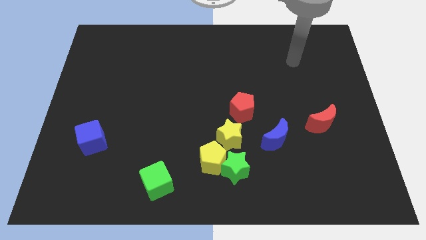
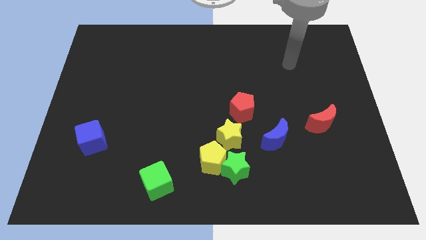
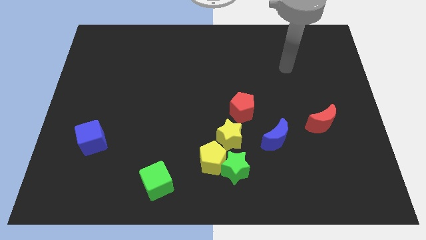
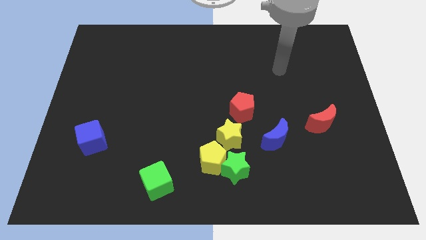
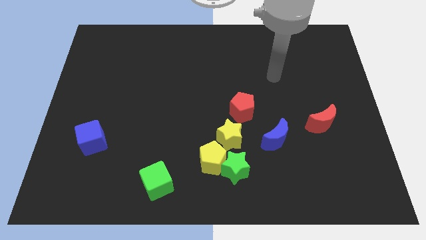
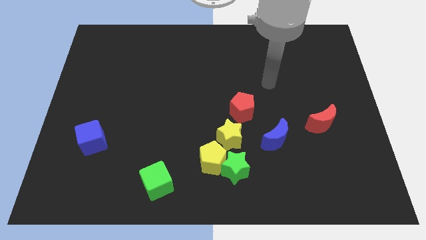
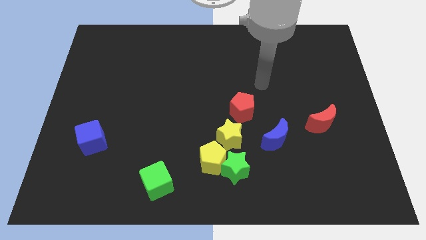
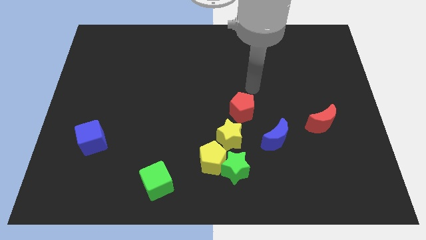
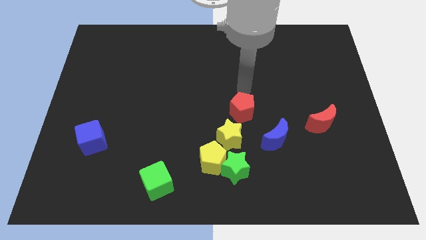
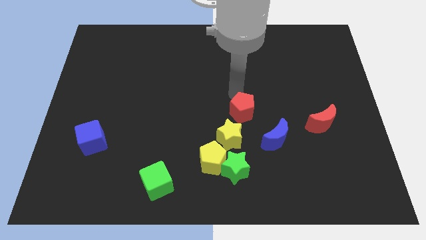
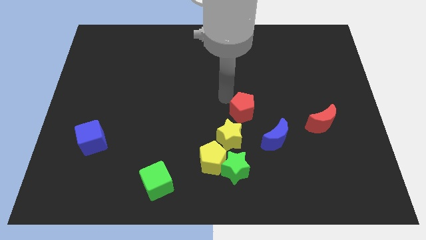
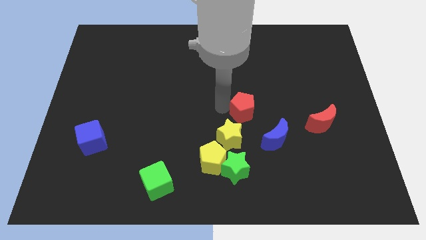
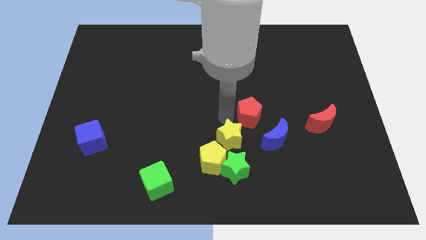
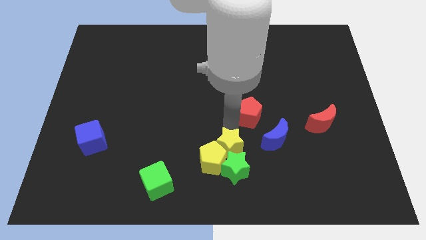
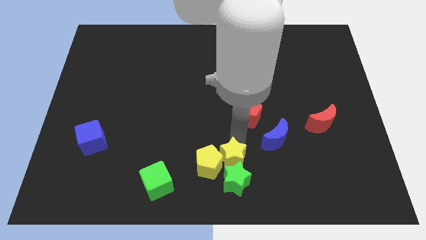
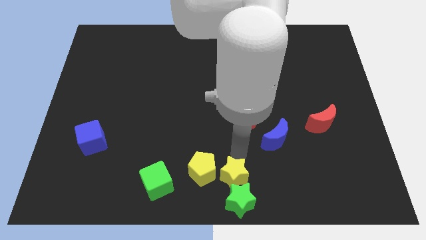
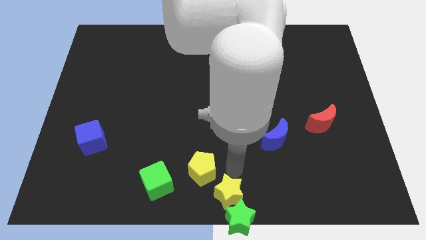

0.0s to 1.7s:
move the yellow pentagon away from the green star and yellow star

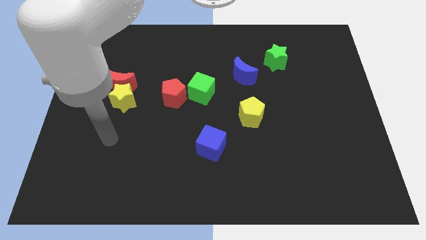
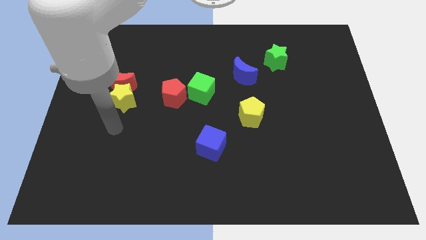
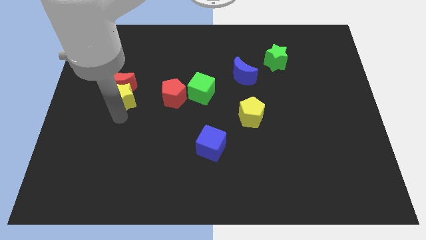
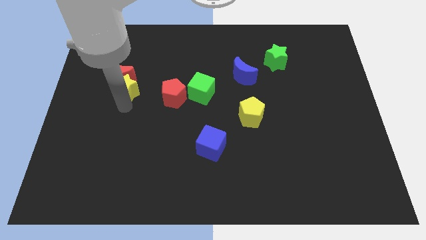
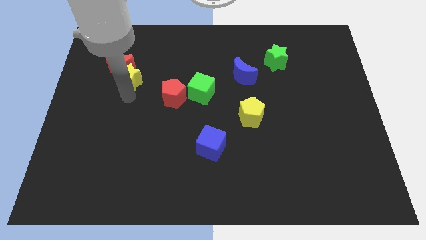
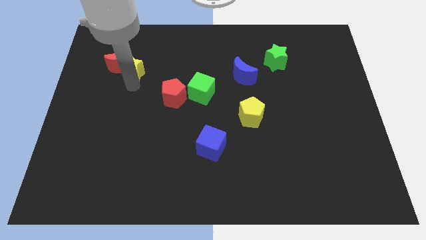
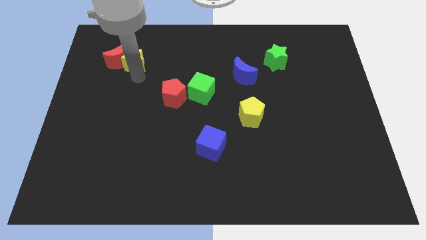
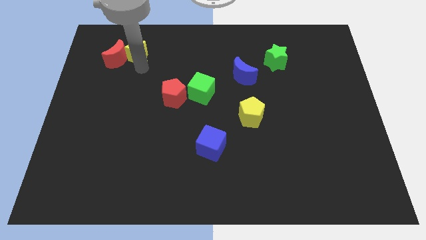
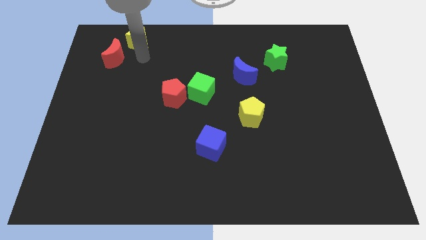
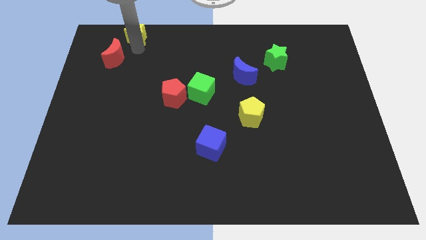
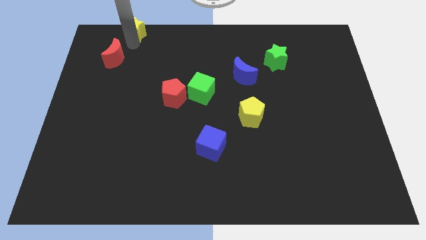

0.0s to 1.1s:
separate the red moon from the yellow star

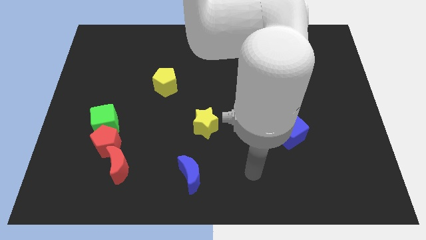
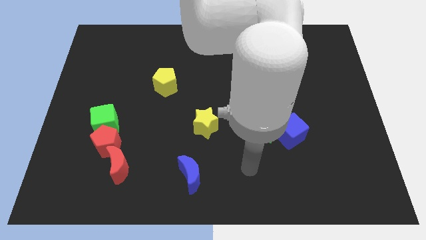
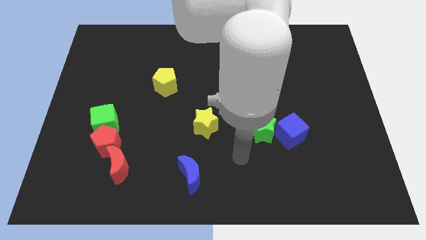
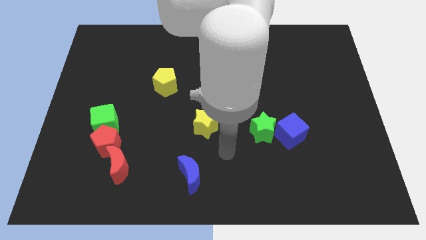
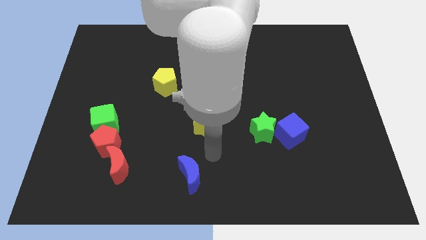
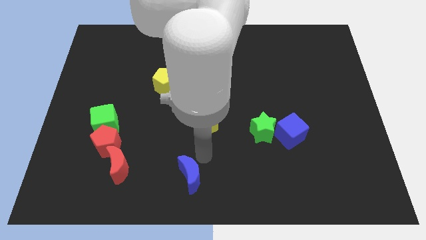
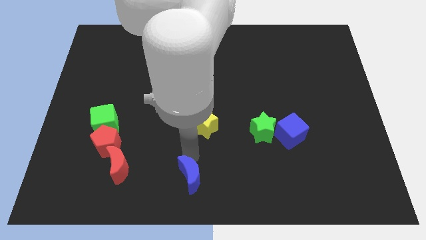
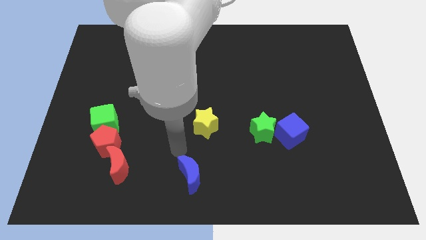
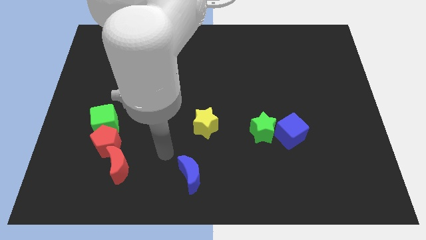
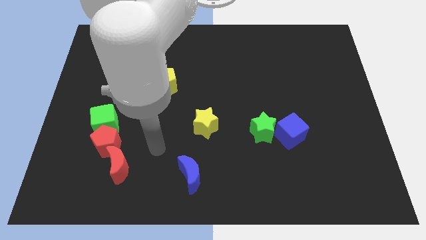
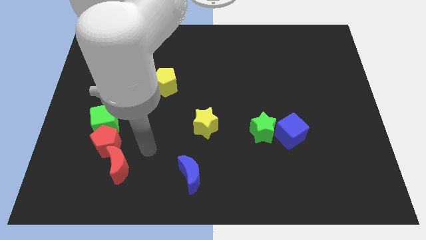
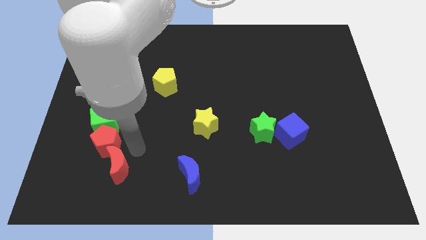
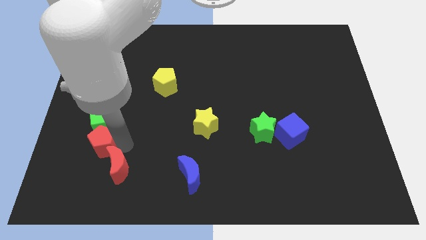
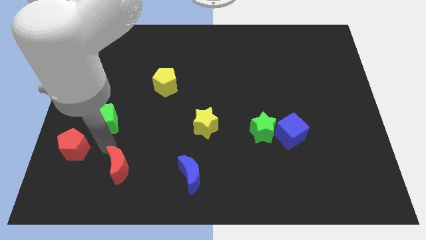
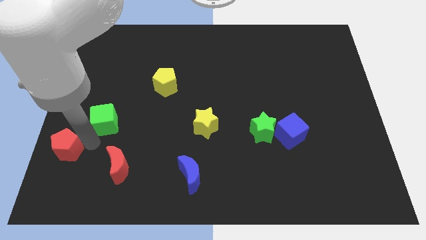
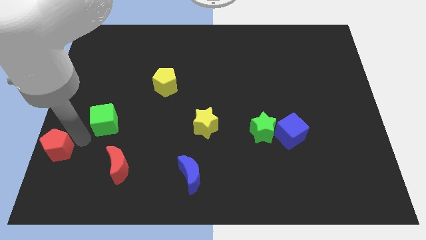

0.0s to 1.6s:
separate the green cube from the red pentagon

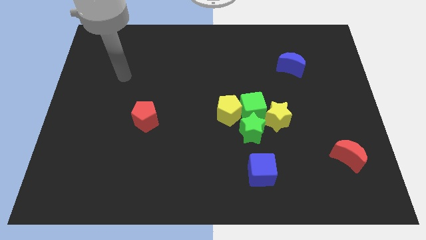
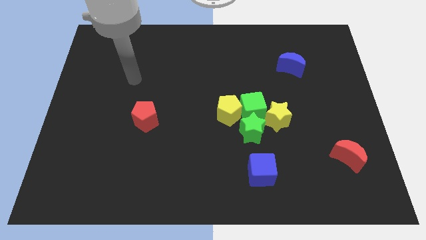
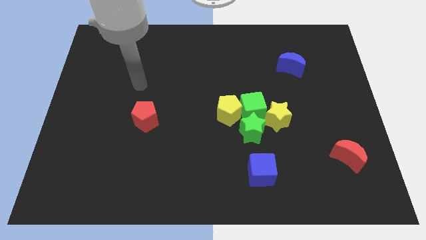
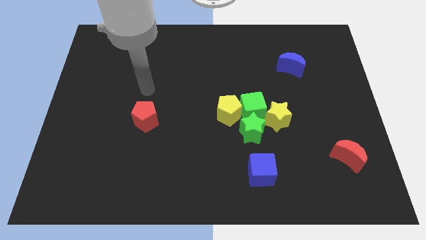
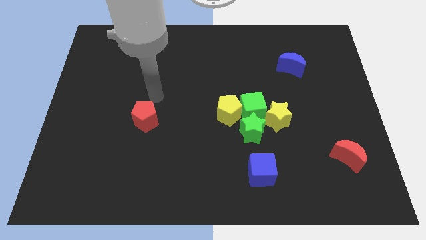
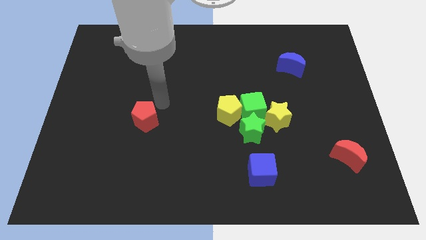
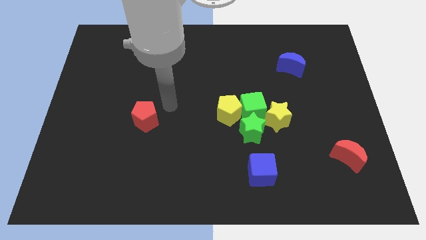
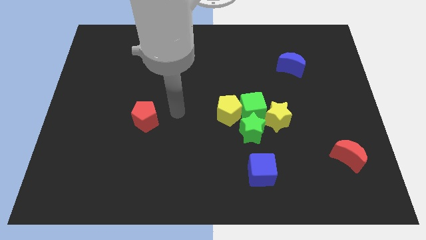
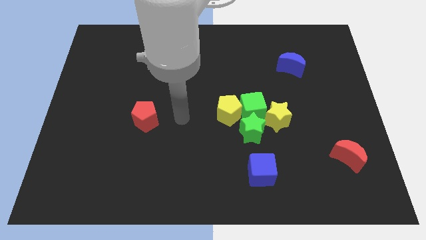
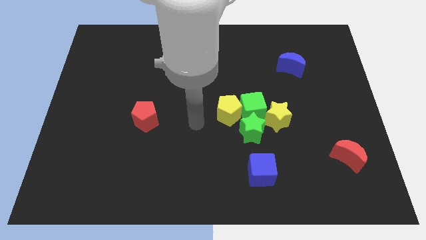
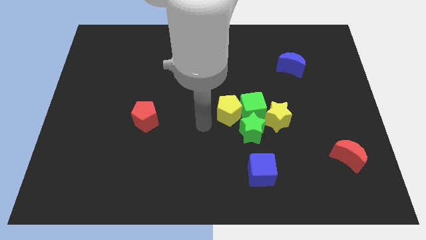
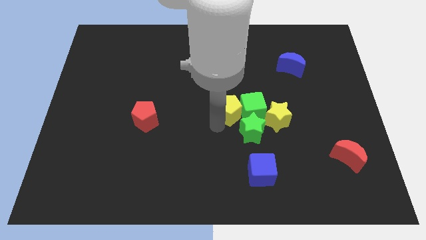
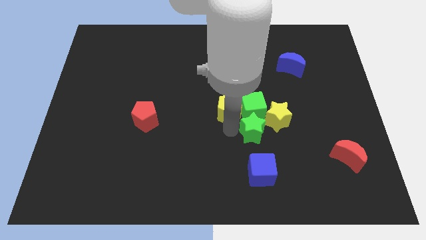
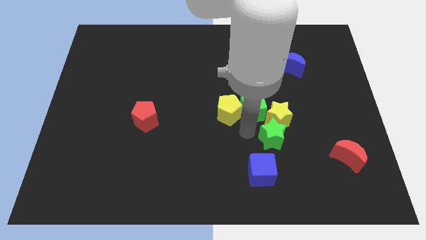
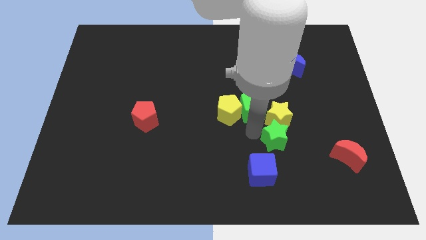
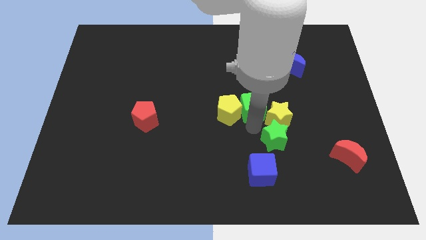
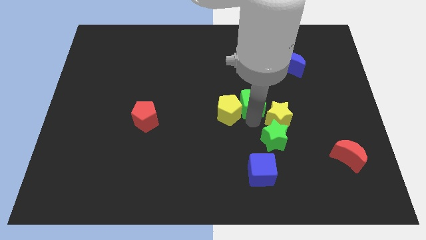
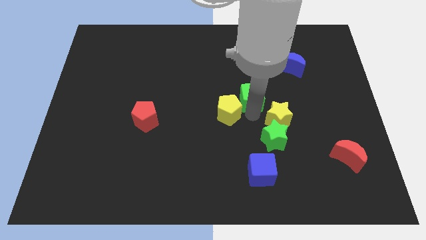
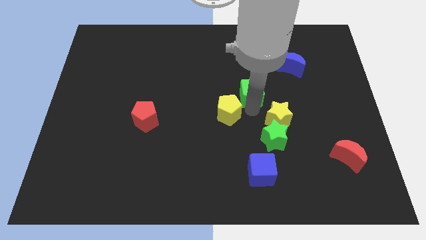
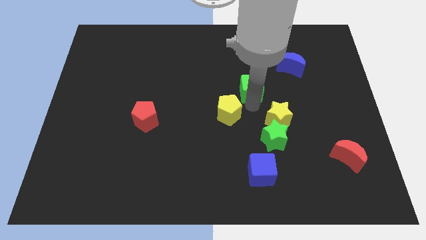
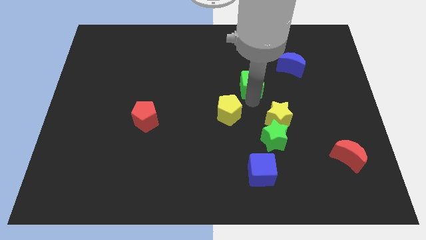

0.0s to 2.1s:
move the green cube away from the group of blocks

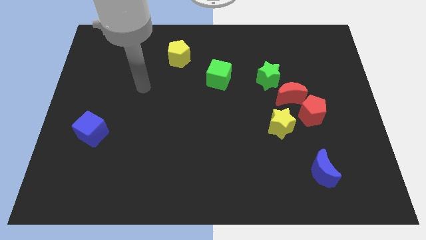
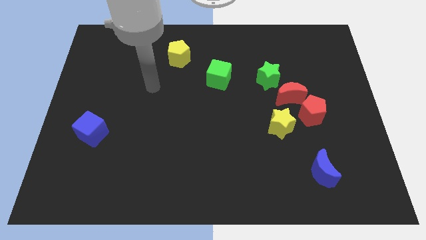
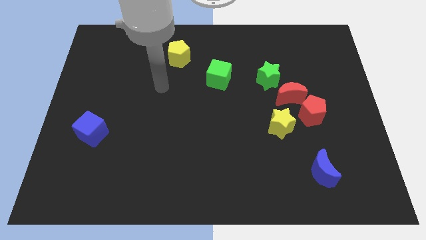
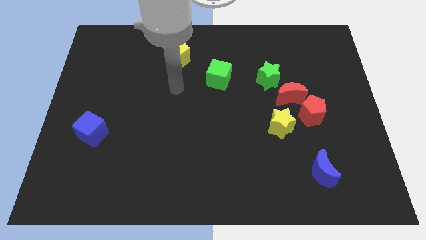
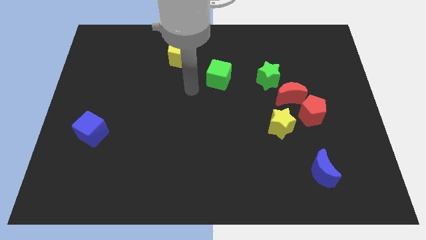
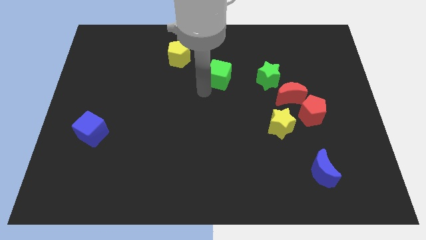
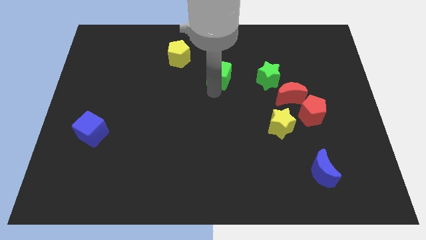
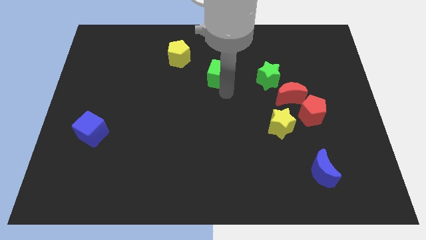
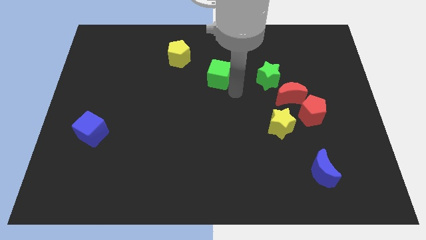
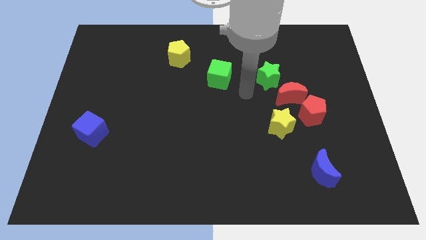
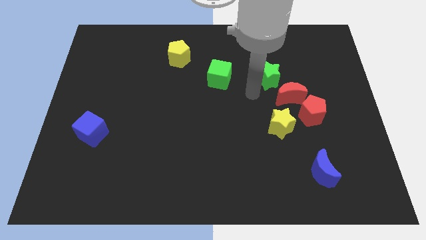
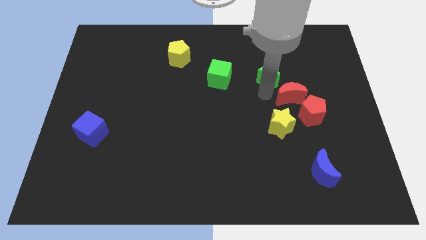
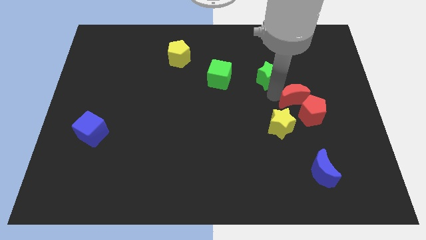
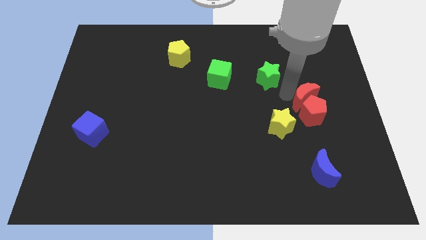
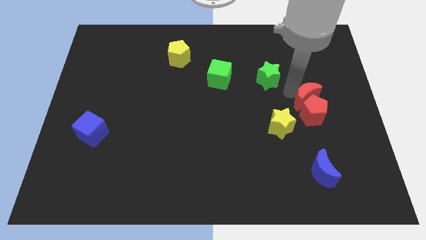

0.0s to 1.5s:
separate the green star from the red moon

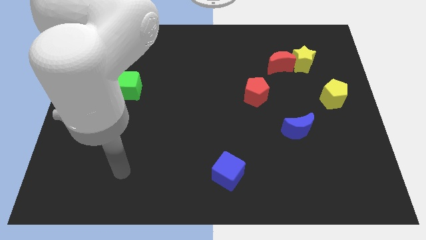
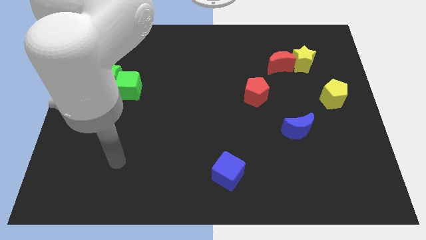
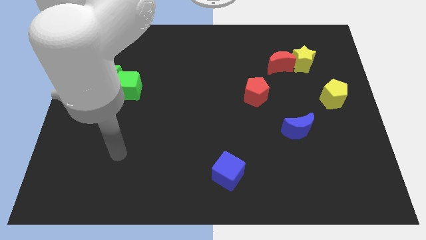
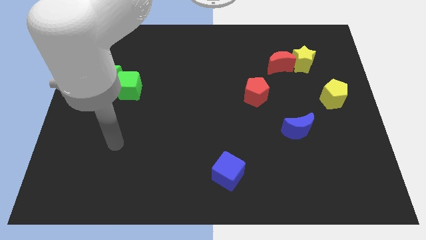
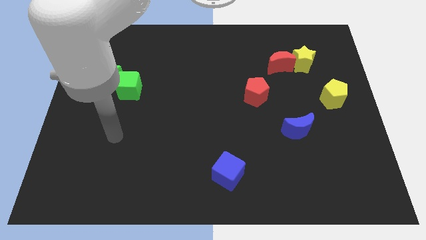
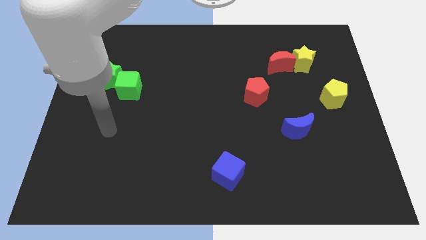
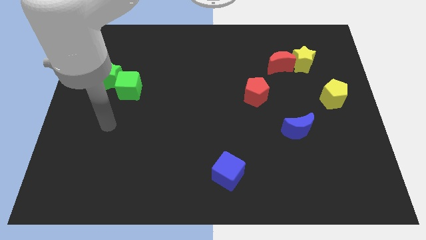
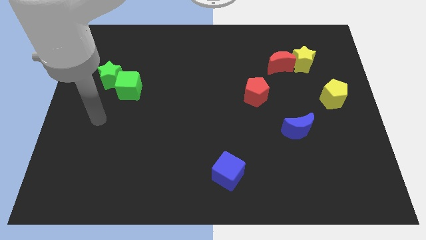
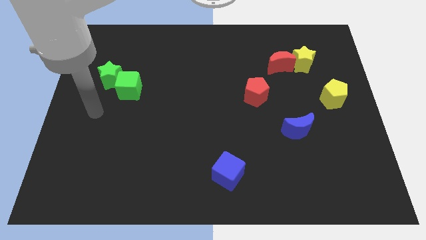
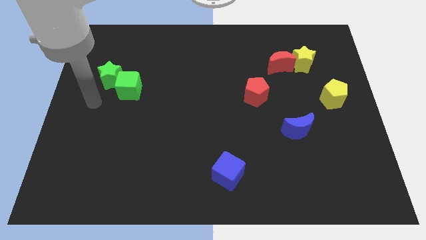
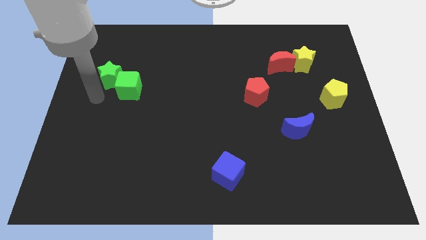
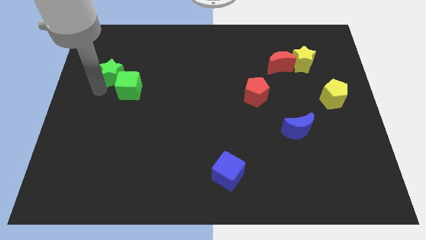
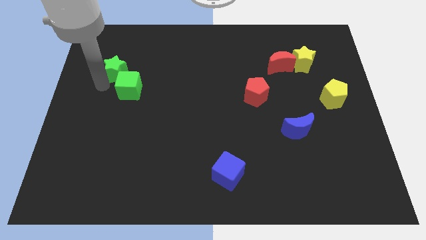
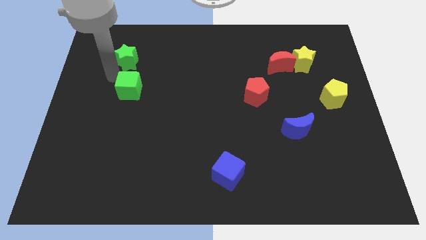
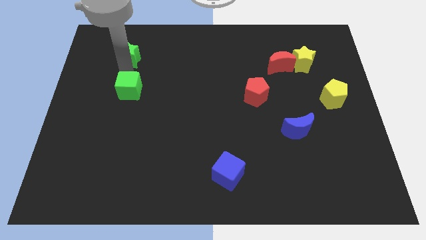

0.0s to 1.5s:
separate the green cube from the green star
